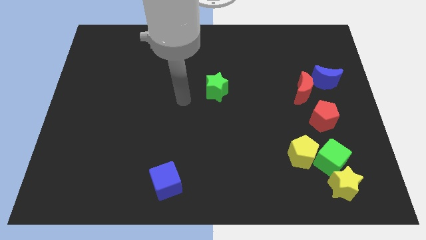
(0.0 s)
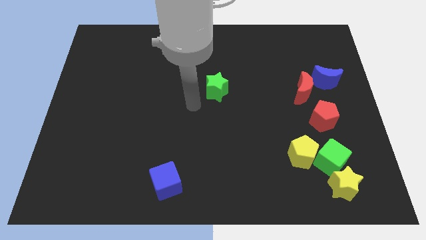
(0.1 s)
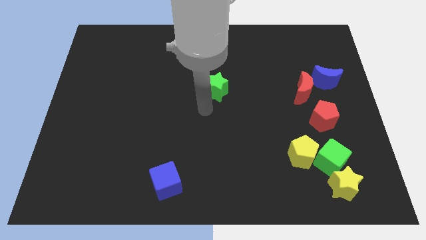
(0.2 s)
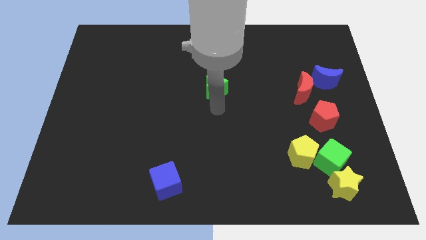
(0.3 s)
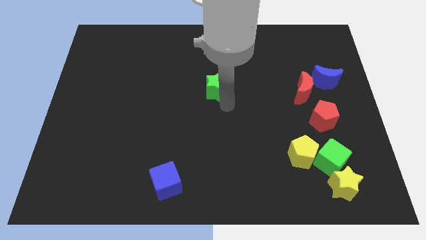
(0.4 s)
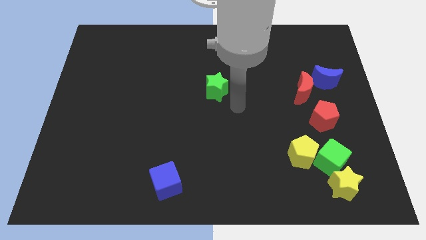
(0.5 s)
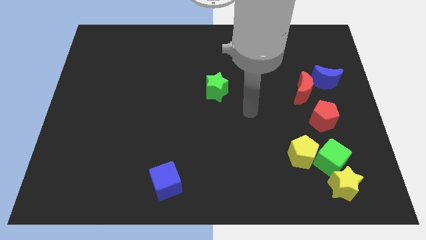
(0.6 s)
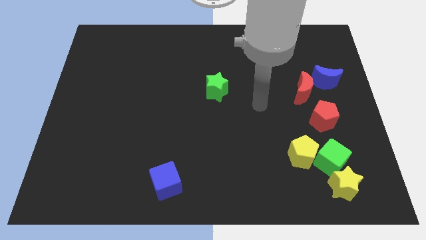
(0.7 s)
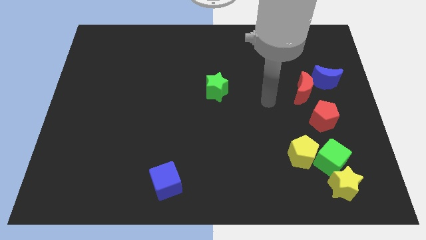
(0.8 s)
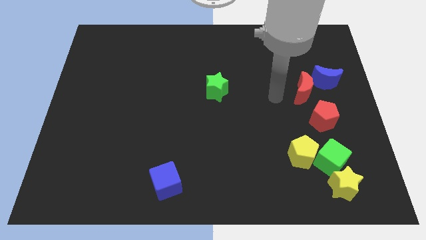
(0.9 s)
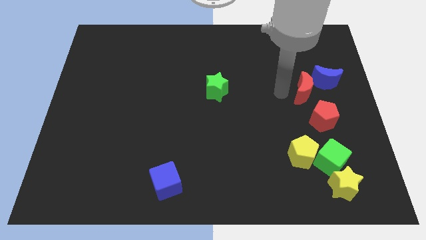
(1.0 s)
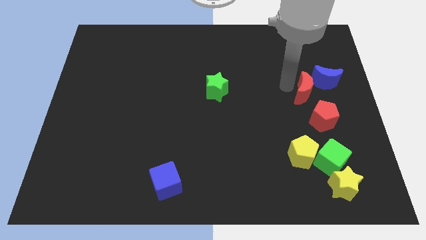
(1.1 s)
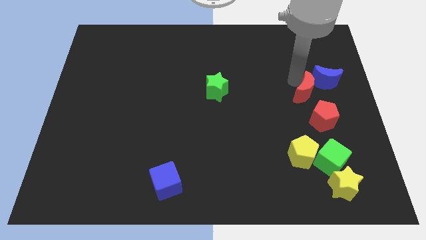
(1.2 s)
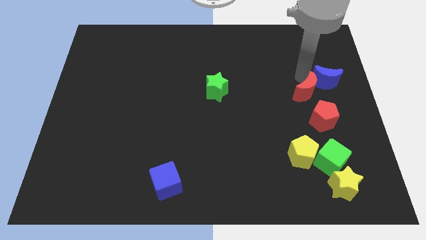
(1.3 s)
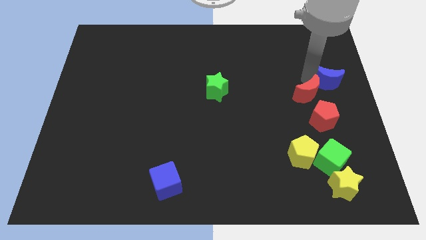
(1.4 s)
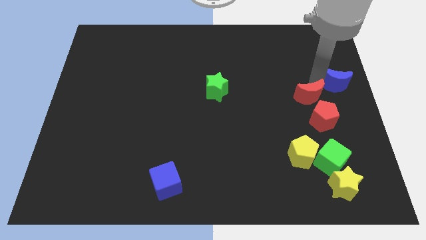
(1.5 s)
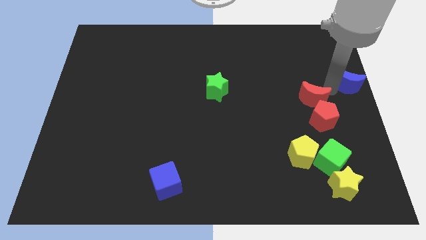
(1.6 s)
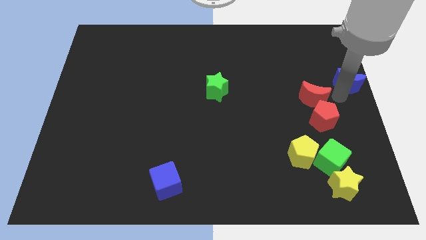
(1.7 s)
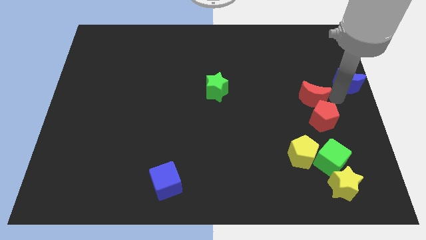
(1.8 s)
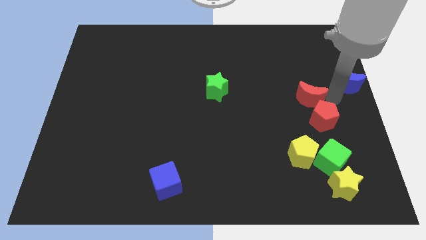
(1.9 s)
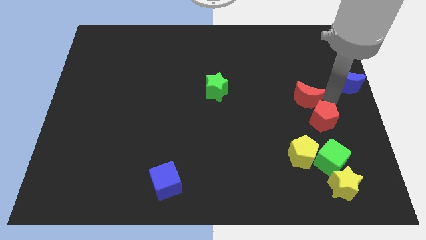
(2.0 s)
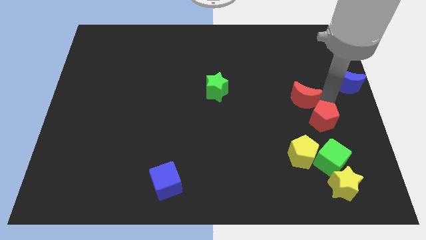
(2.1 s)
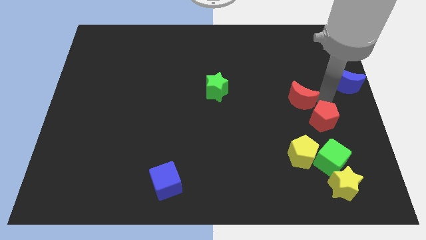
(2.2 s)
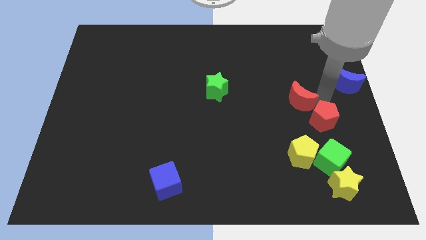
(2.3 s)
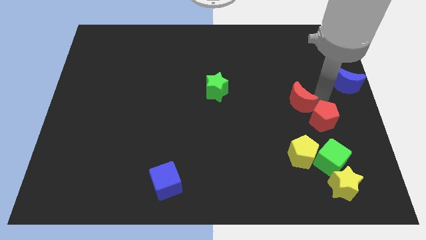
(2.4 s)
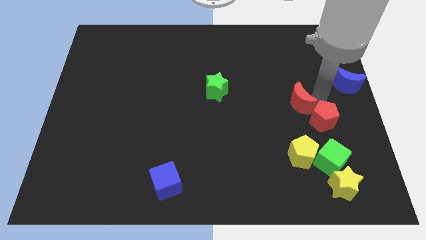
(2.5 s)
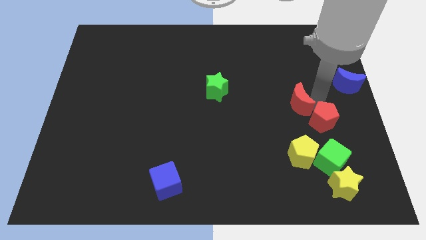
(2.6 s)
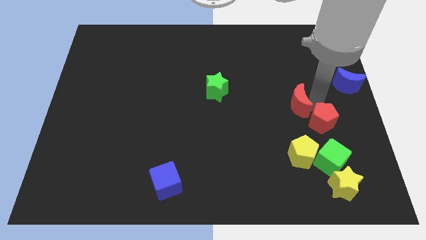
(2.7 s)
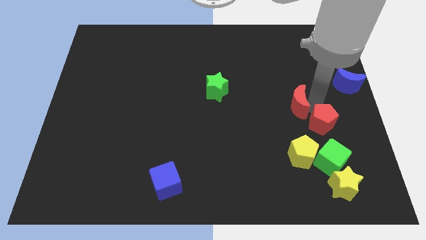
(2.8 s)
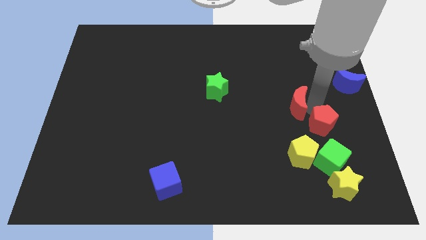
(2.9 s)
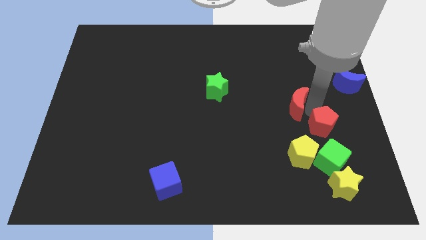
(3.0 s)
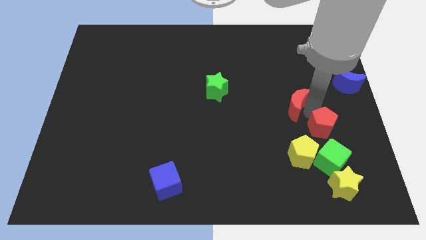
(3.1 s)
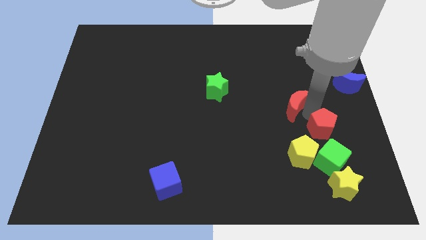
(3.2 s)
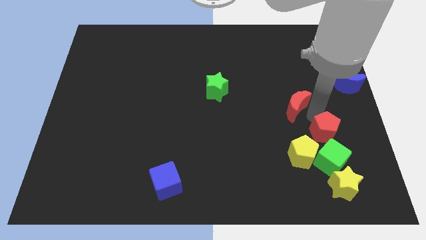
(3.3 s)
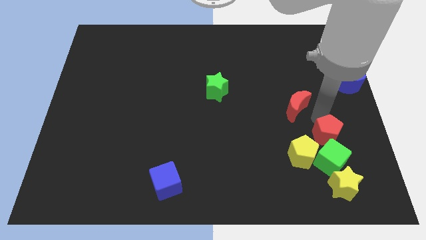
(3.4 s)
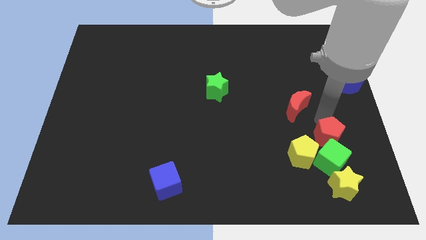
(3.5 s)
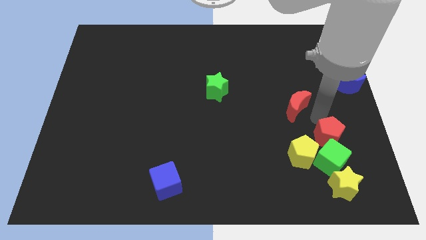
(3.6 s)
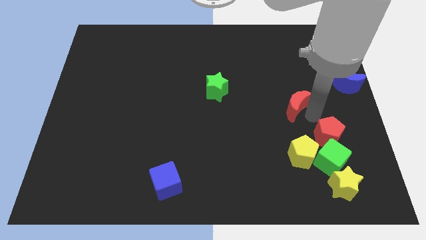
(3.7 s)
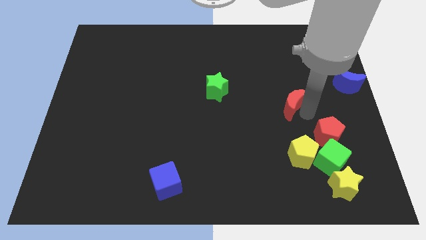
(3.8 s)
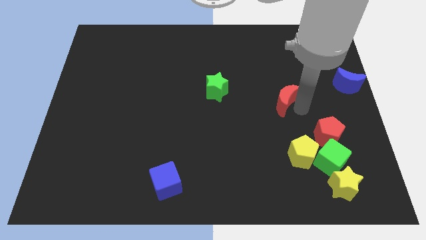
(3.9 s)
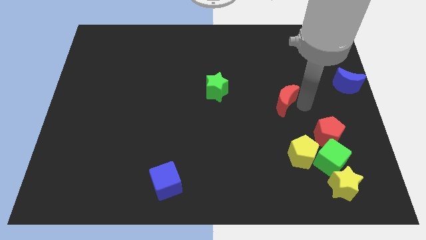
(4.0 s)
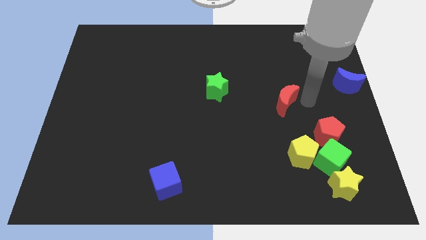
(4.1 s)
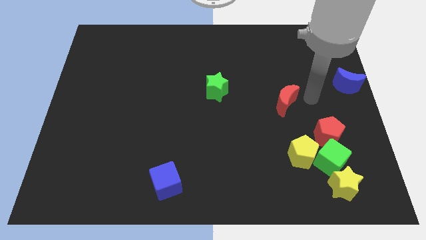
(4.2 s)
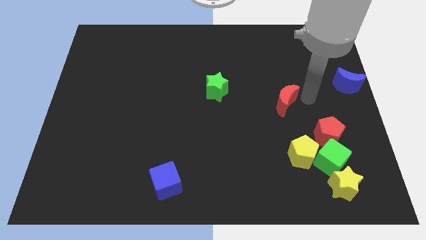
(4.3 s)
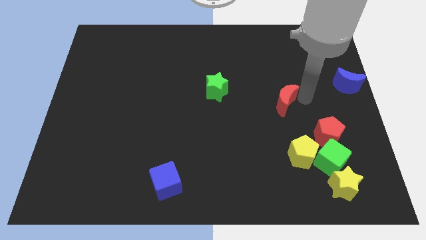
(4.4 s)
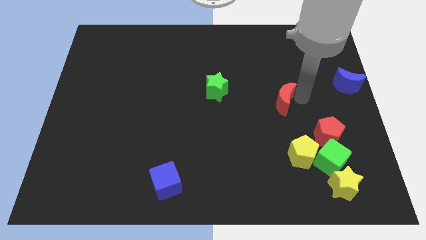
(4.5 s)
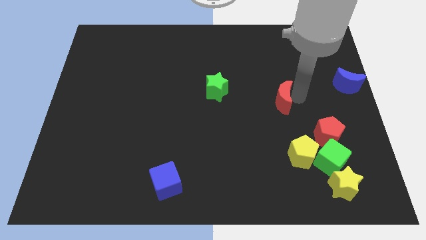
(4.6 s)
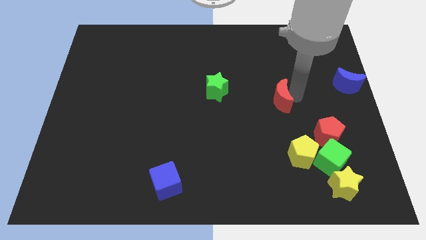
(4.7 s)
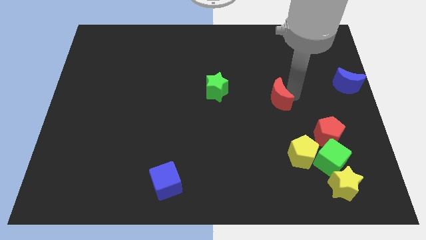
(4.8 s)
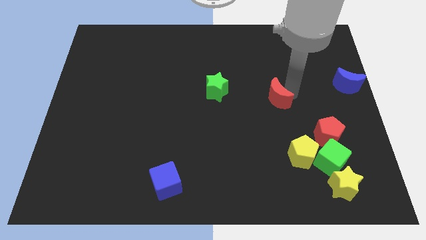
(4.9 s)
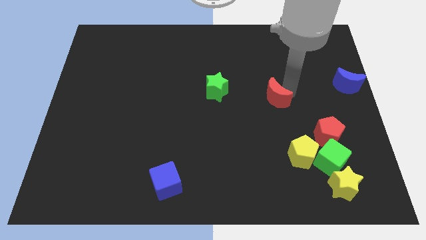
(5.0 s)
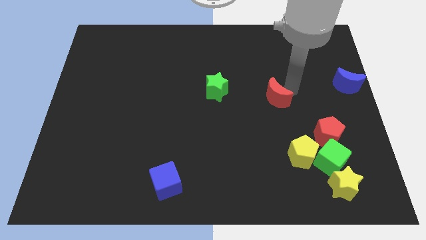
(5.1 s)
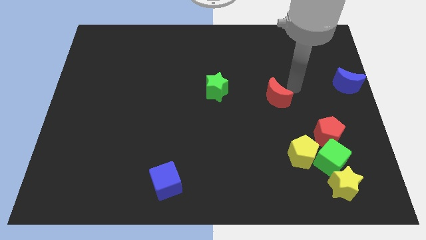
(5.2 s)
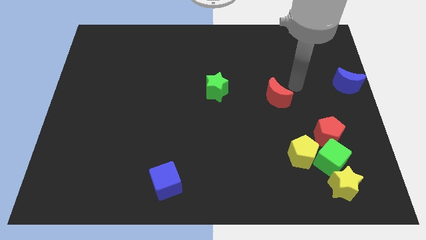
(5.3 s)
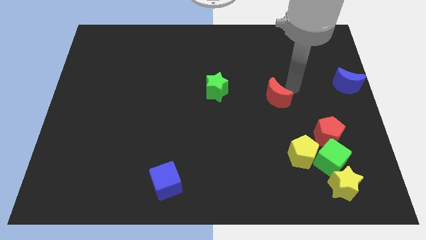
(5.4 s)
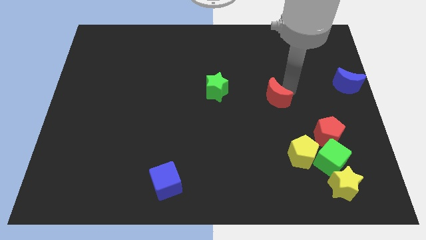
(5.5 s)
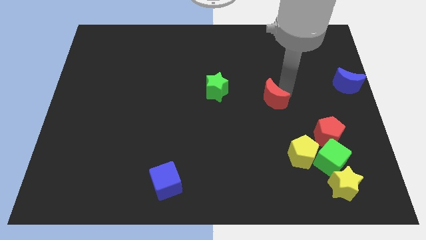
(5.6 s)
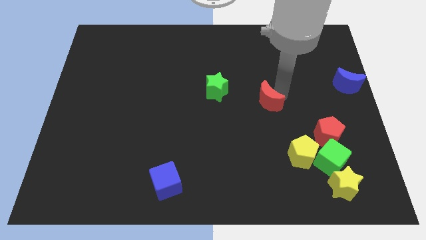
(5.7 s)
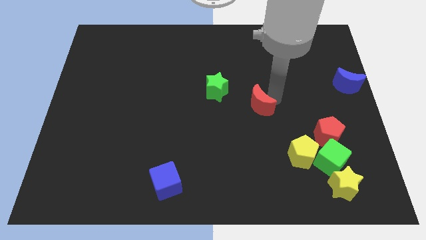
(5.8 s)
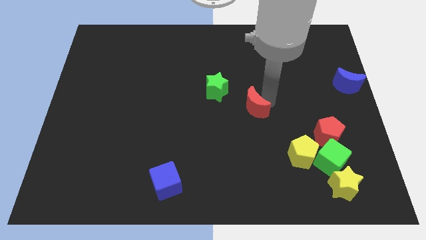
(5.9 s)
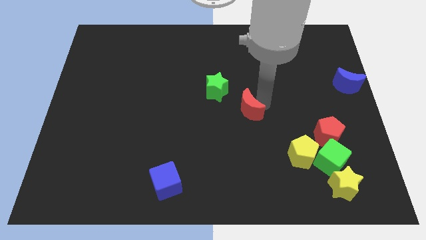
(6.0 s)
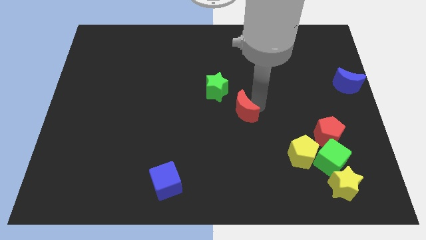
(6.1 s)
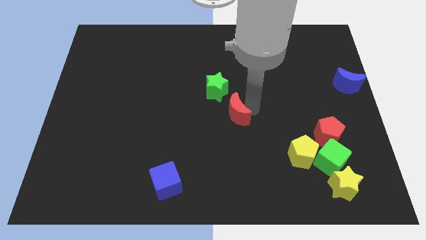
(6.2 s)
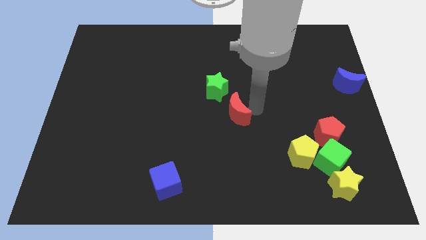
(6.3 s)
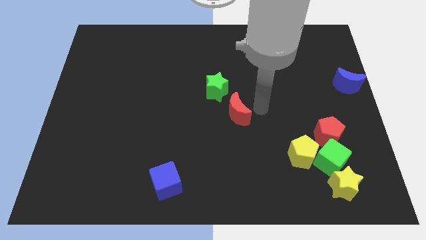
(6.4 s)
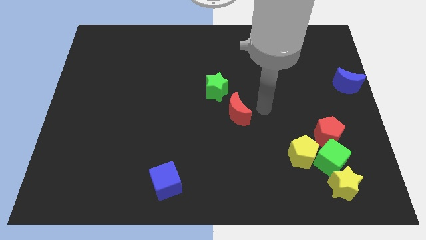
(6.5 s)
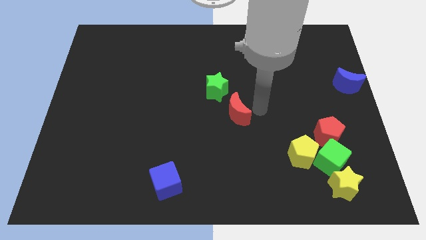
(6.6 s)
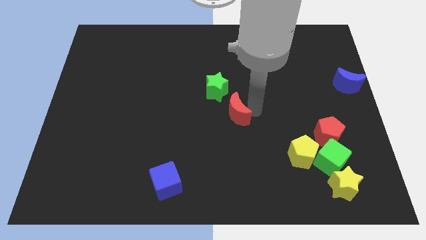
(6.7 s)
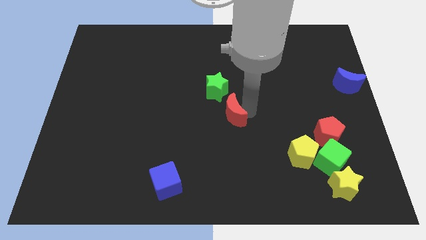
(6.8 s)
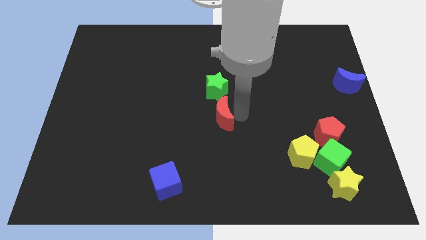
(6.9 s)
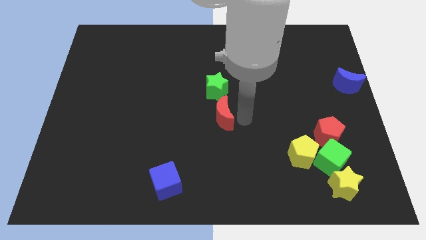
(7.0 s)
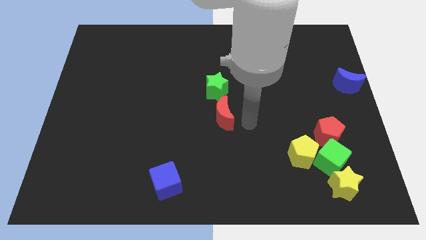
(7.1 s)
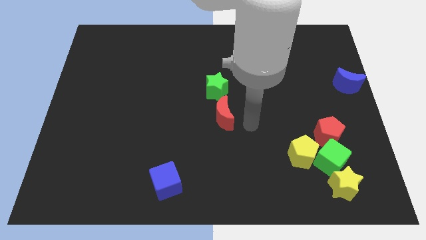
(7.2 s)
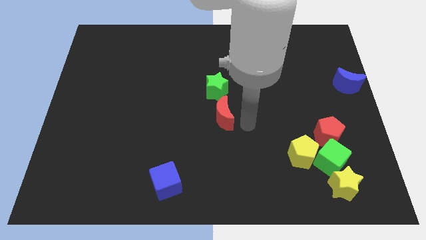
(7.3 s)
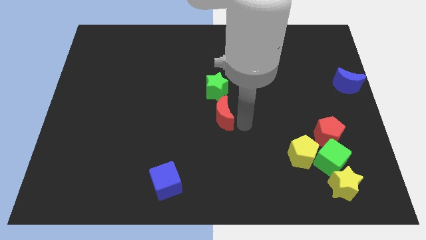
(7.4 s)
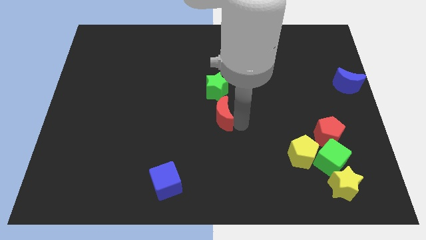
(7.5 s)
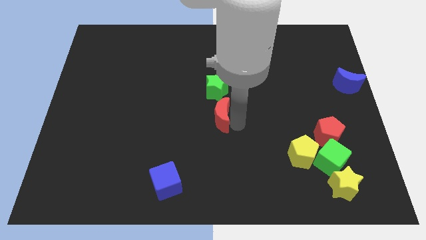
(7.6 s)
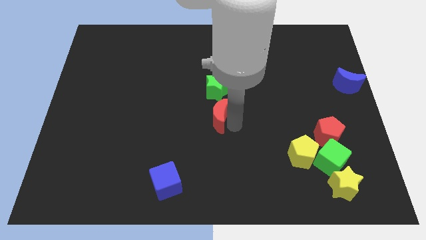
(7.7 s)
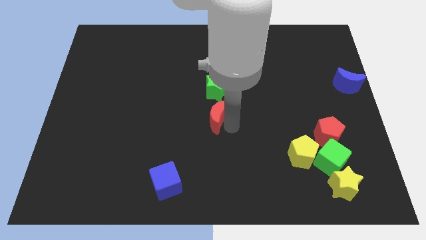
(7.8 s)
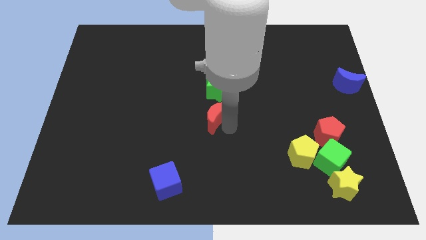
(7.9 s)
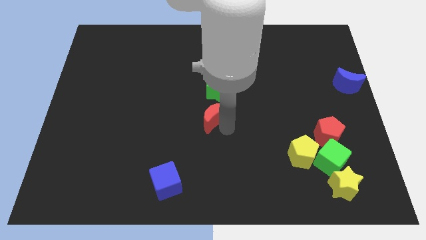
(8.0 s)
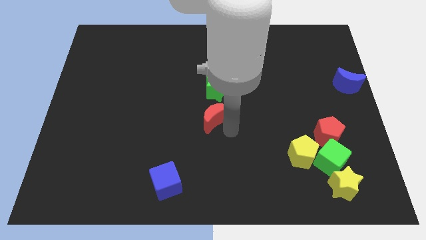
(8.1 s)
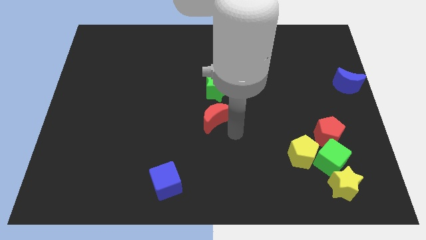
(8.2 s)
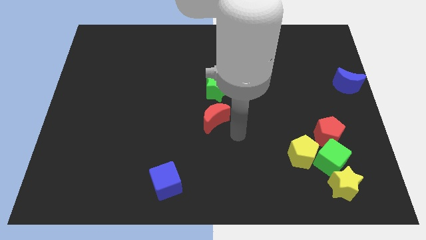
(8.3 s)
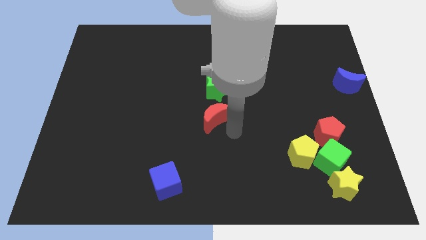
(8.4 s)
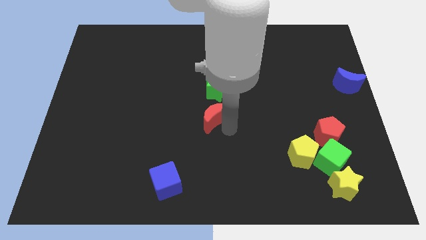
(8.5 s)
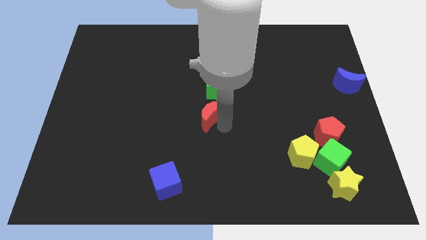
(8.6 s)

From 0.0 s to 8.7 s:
slide the red moon to the left
